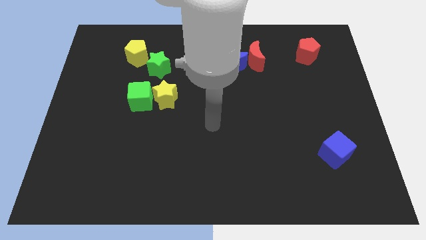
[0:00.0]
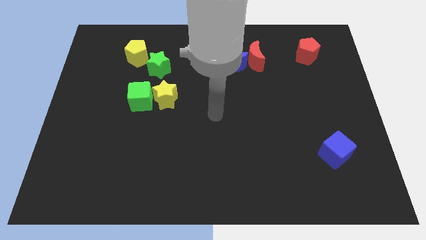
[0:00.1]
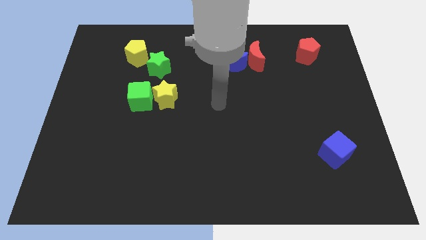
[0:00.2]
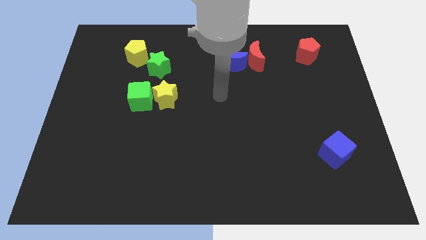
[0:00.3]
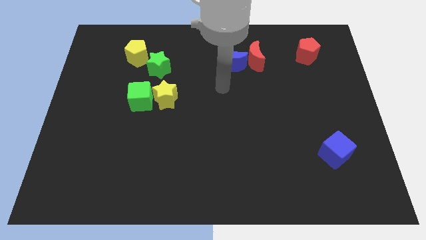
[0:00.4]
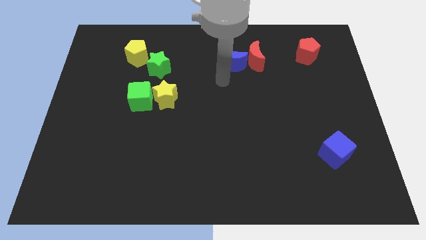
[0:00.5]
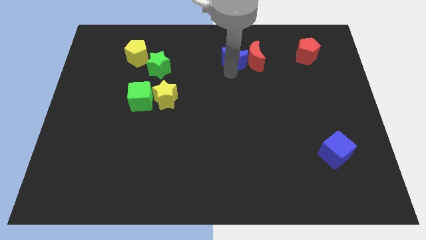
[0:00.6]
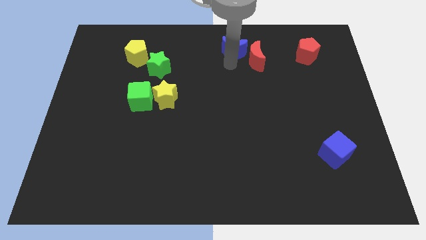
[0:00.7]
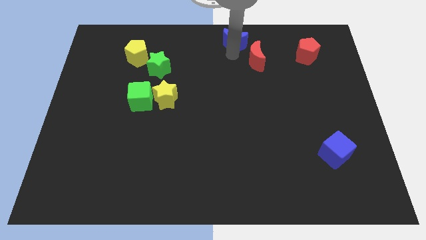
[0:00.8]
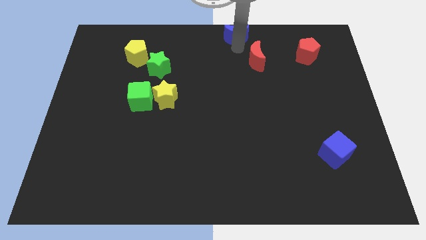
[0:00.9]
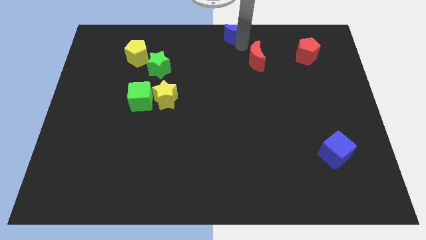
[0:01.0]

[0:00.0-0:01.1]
move the red moon away from the blue moon

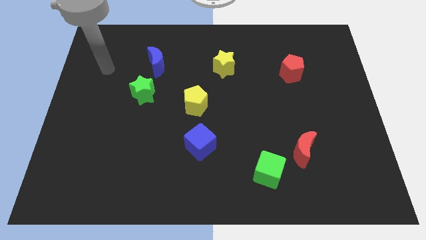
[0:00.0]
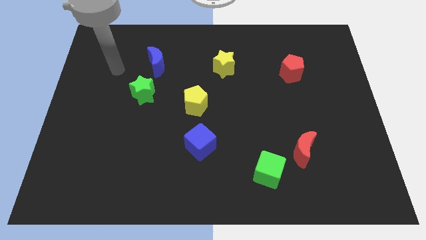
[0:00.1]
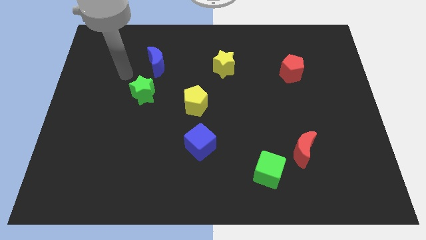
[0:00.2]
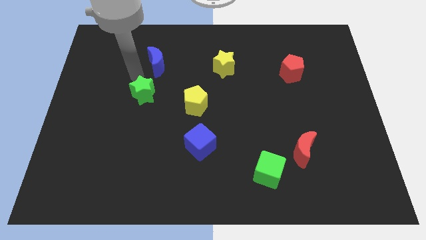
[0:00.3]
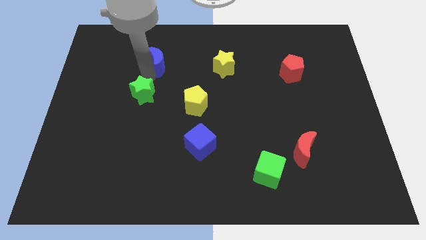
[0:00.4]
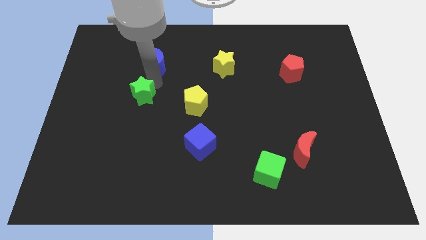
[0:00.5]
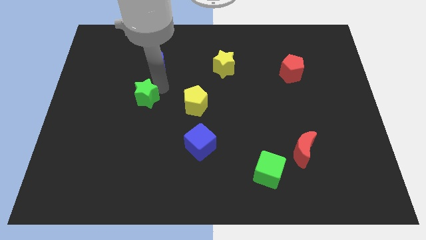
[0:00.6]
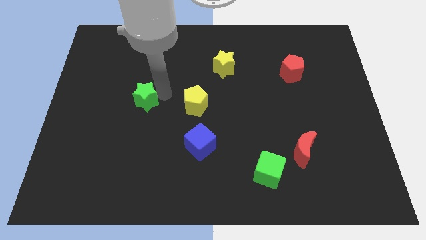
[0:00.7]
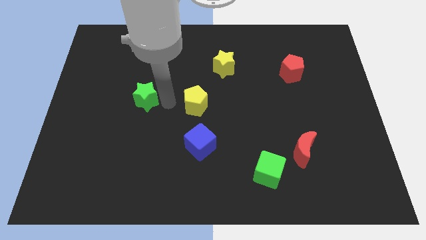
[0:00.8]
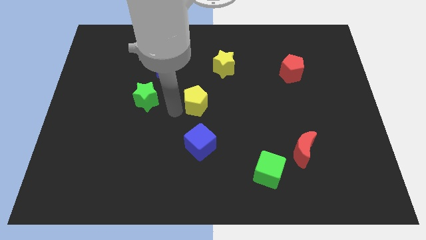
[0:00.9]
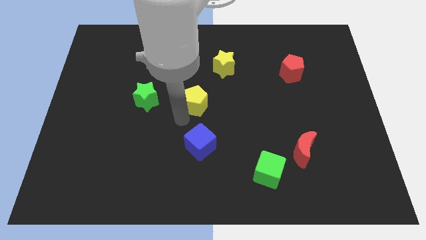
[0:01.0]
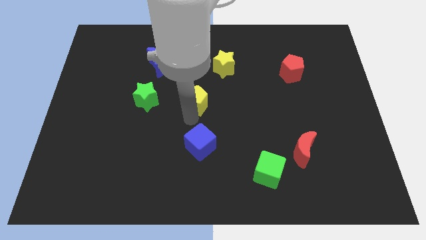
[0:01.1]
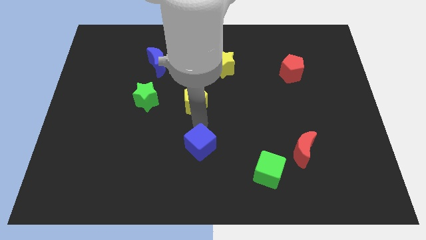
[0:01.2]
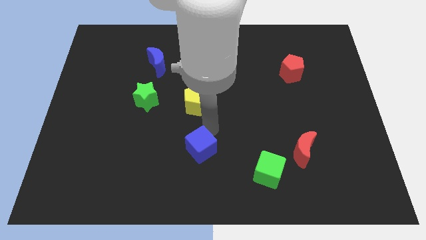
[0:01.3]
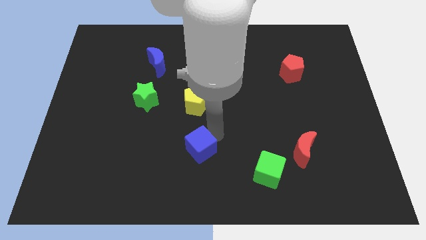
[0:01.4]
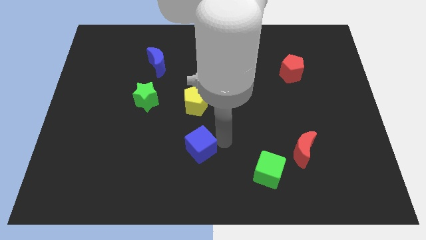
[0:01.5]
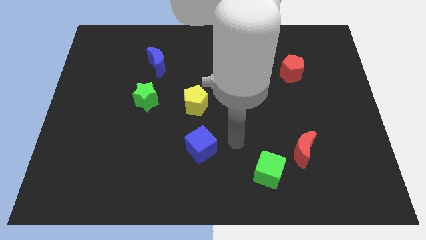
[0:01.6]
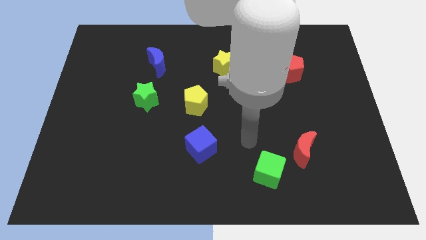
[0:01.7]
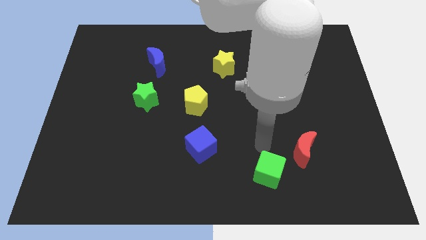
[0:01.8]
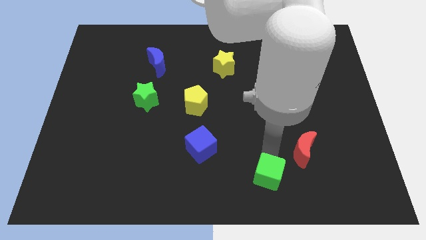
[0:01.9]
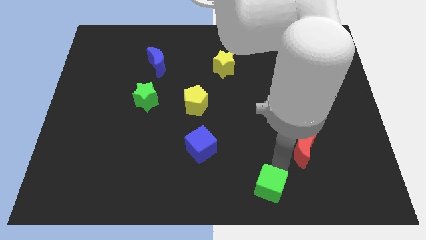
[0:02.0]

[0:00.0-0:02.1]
pull the red moon apart from the green cube

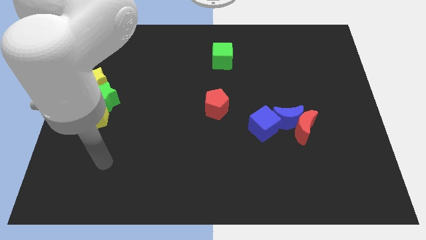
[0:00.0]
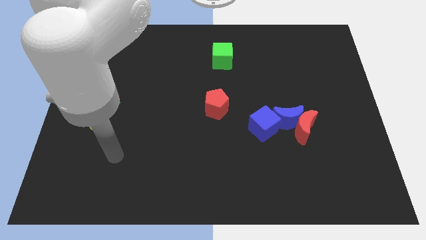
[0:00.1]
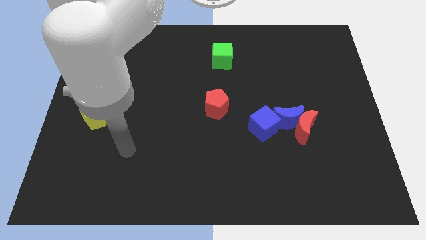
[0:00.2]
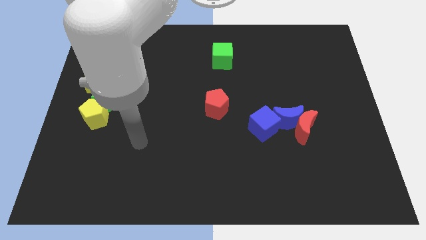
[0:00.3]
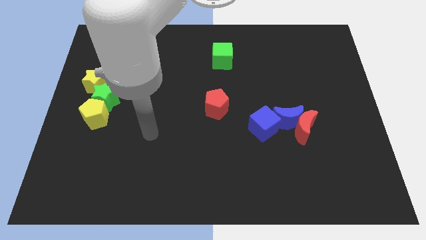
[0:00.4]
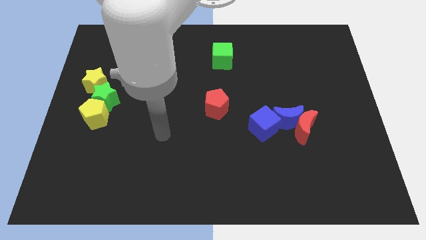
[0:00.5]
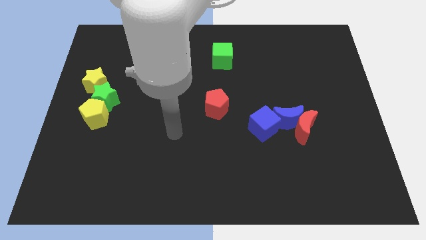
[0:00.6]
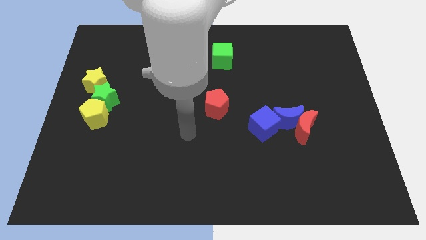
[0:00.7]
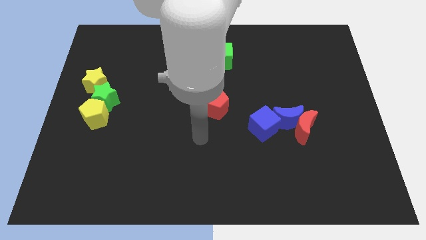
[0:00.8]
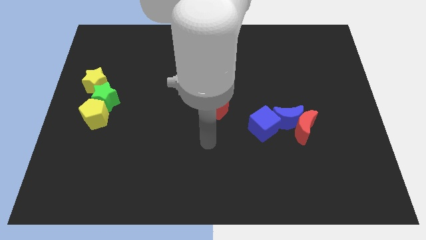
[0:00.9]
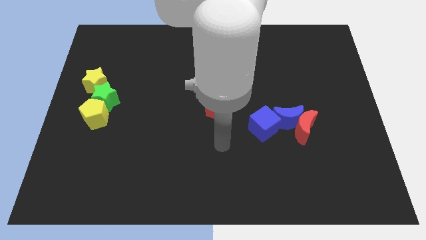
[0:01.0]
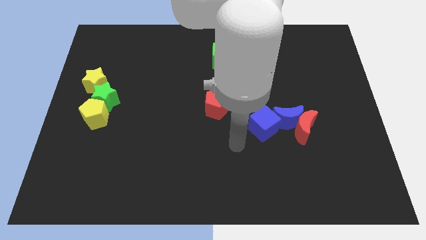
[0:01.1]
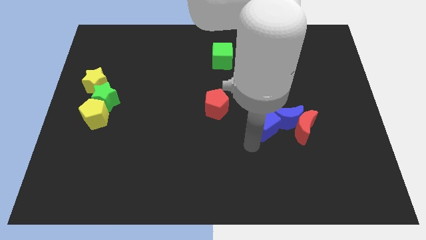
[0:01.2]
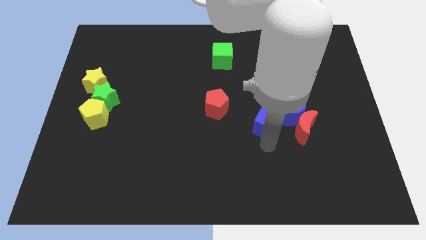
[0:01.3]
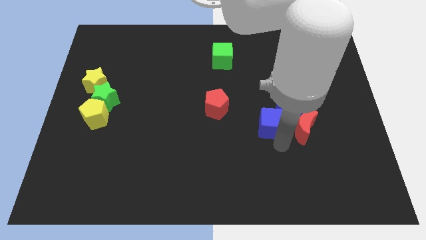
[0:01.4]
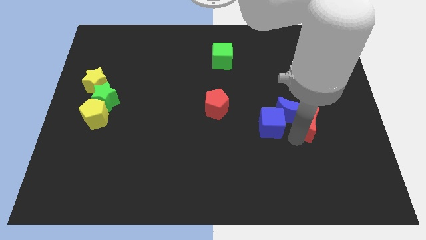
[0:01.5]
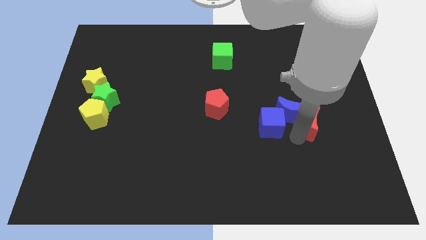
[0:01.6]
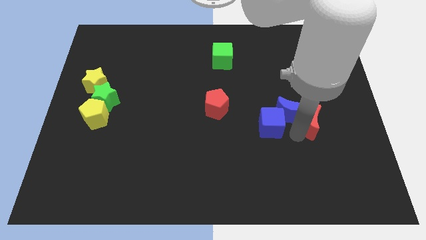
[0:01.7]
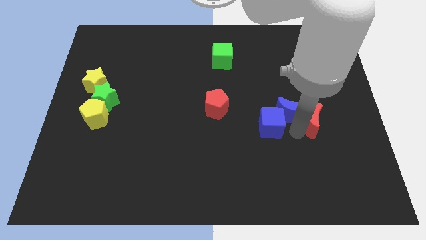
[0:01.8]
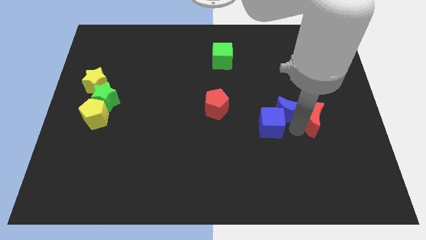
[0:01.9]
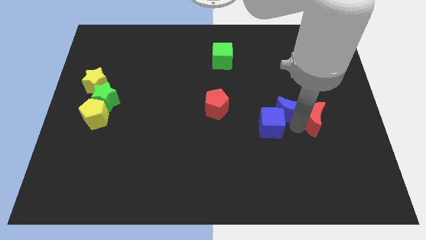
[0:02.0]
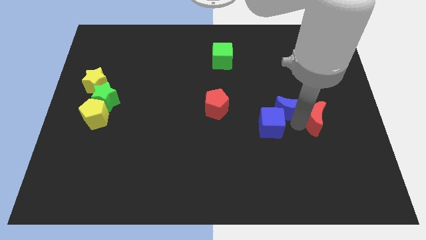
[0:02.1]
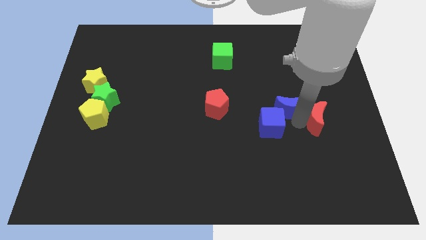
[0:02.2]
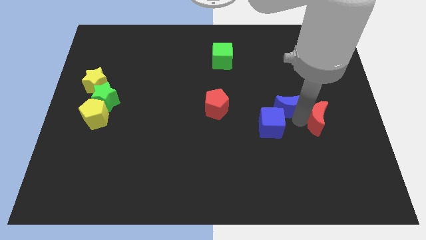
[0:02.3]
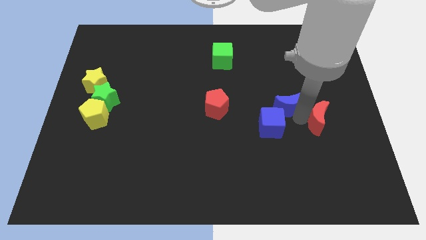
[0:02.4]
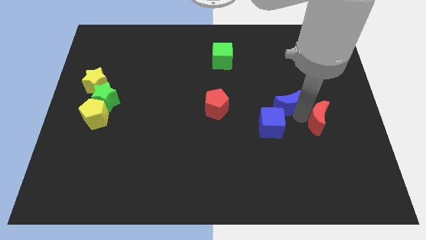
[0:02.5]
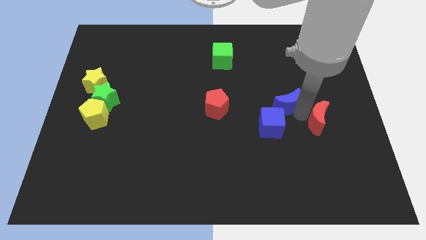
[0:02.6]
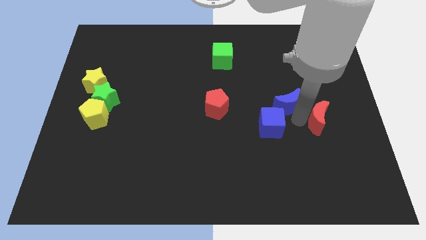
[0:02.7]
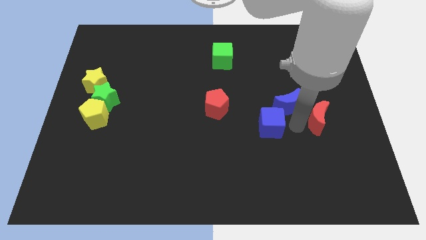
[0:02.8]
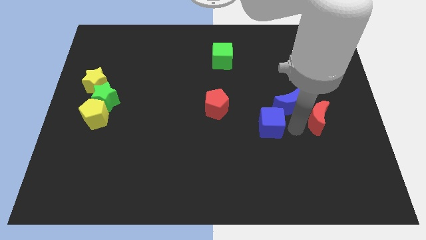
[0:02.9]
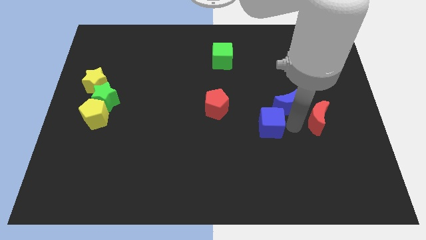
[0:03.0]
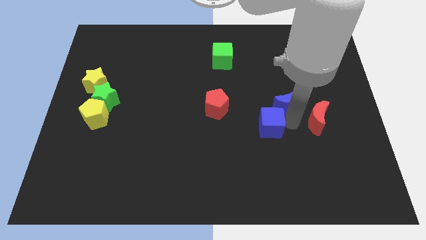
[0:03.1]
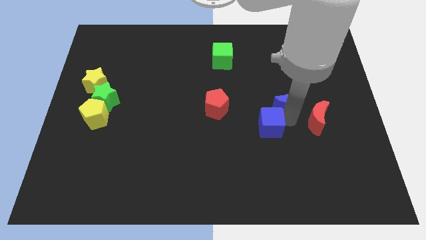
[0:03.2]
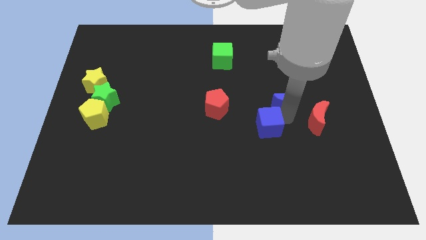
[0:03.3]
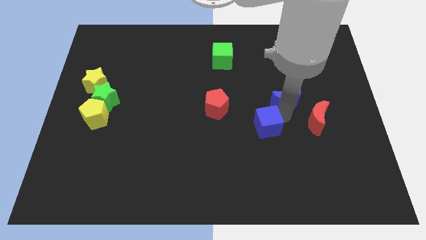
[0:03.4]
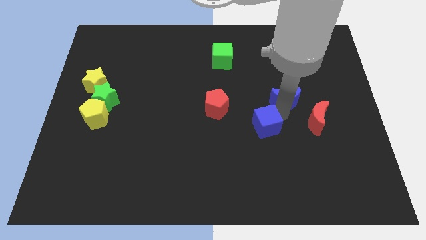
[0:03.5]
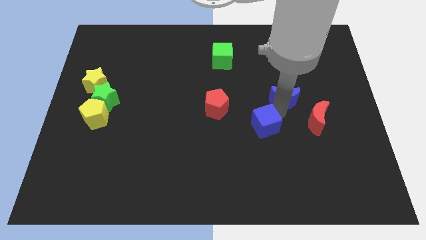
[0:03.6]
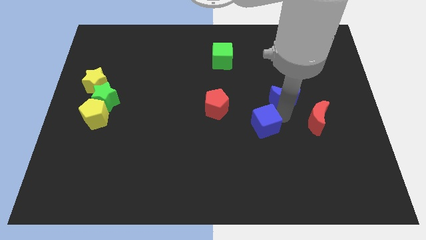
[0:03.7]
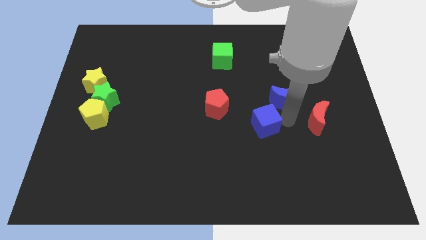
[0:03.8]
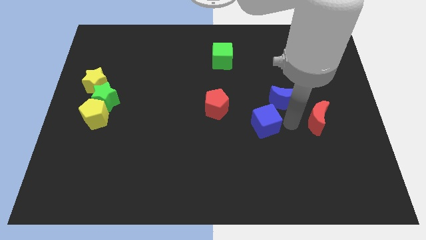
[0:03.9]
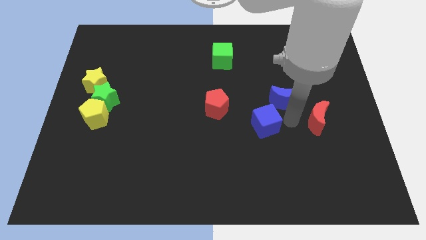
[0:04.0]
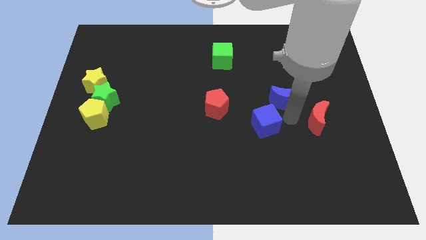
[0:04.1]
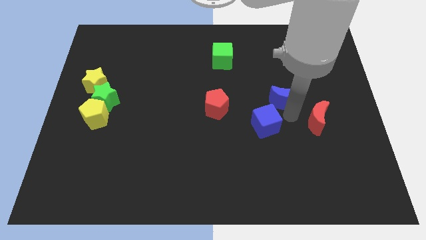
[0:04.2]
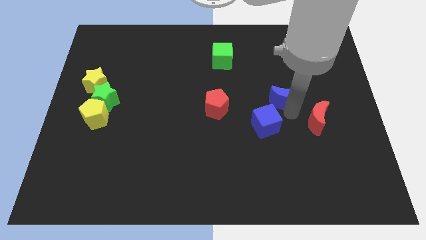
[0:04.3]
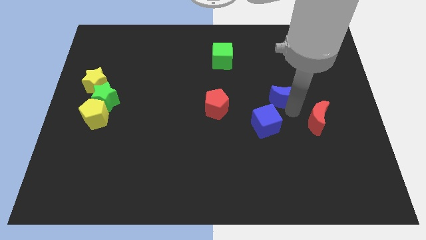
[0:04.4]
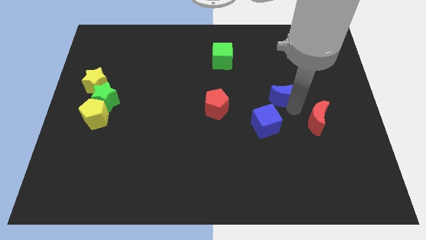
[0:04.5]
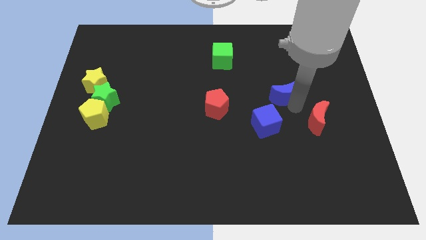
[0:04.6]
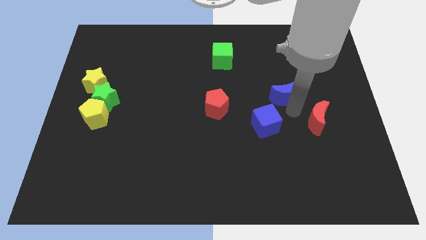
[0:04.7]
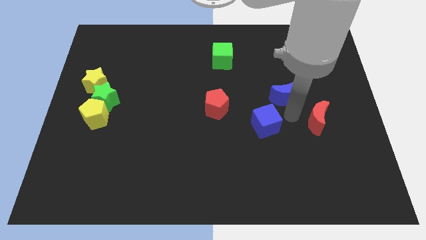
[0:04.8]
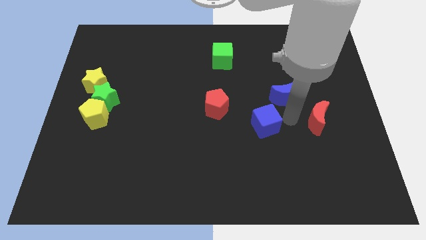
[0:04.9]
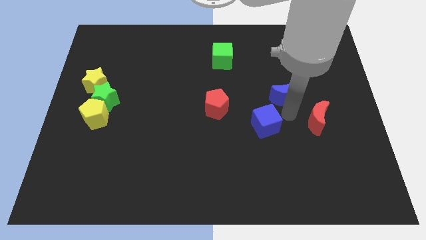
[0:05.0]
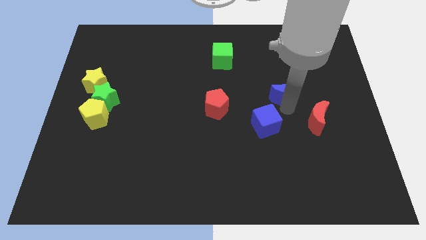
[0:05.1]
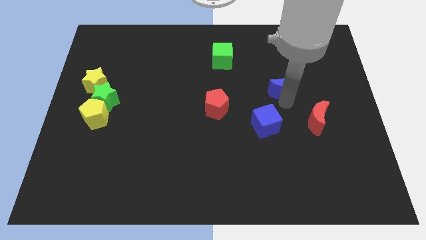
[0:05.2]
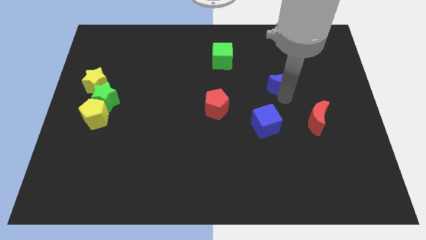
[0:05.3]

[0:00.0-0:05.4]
move the blue moon away from the red moon and blue cube

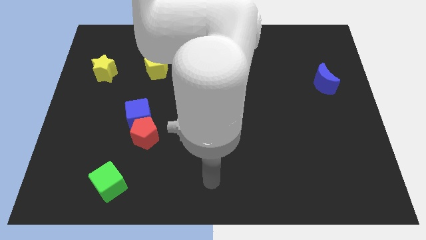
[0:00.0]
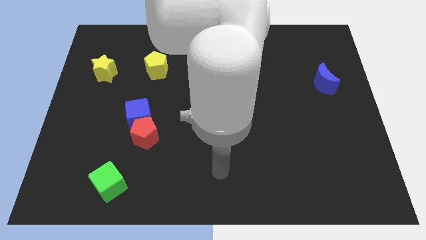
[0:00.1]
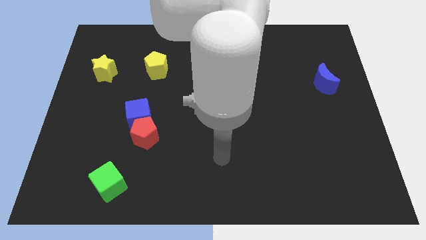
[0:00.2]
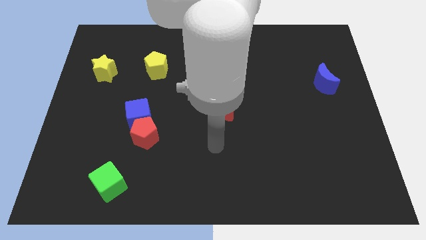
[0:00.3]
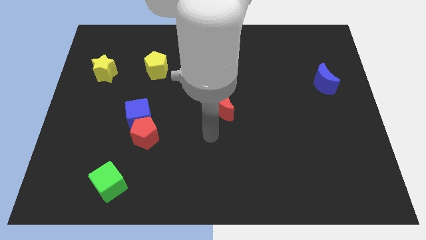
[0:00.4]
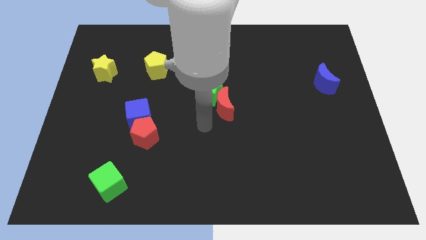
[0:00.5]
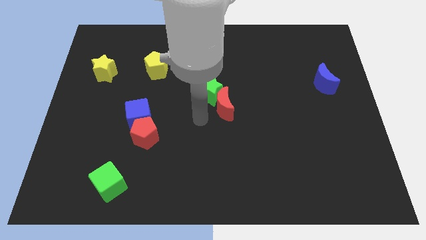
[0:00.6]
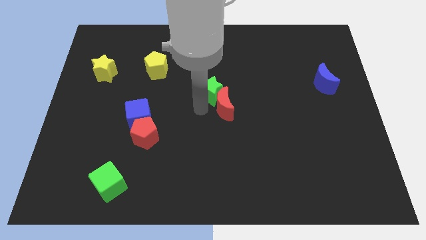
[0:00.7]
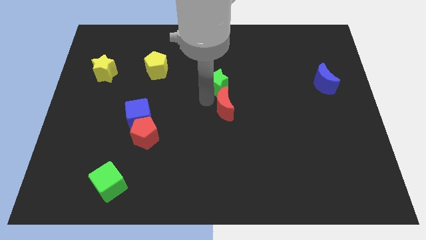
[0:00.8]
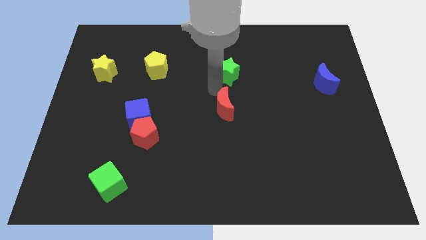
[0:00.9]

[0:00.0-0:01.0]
move the red moon away from the green star
